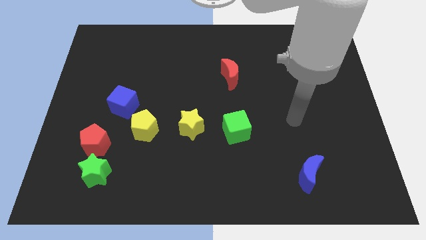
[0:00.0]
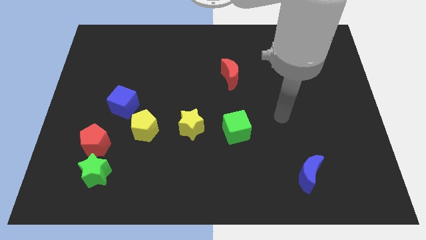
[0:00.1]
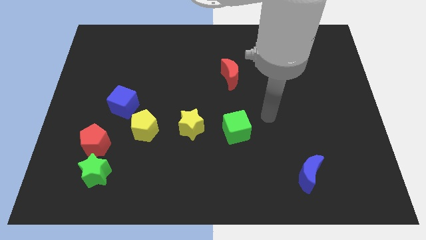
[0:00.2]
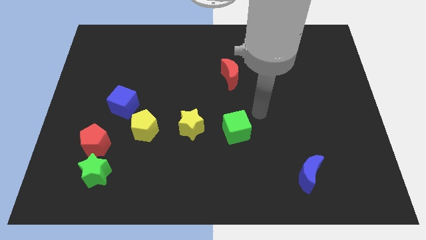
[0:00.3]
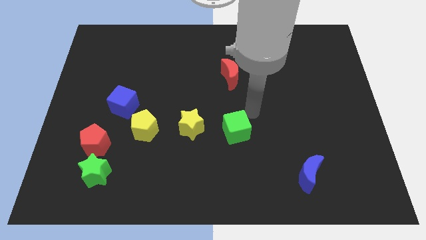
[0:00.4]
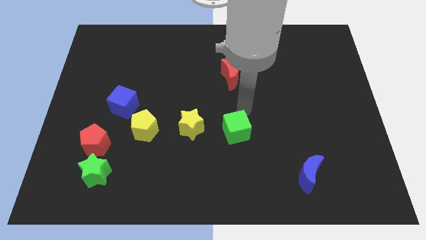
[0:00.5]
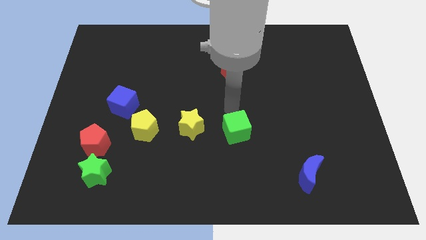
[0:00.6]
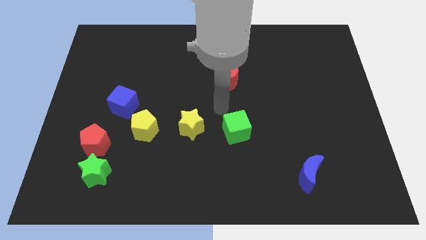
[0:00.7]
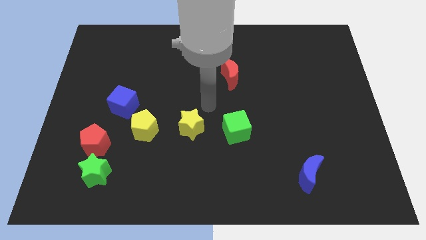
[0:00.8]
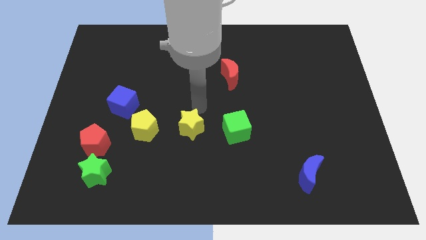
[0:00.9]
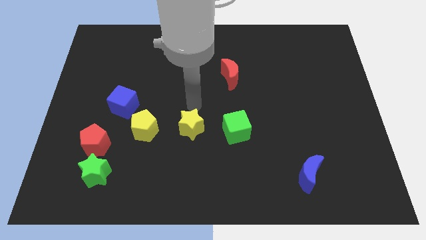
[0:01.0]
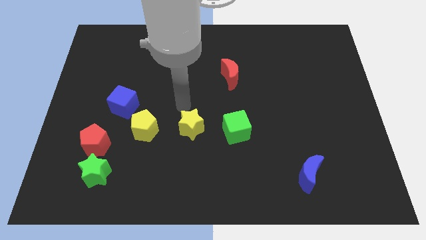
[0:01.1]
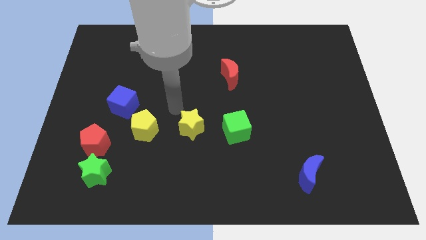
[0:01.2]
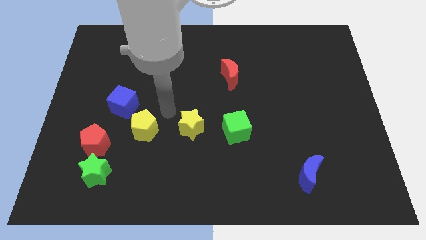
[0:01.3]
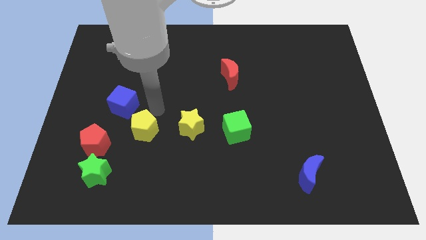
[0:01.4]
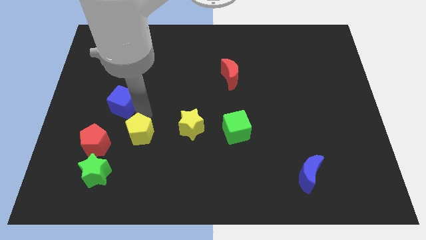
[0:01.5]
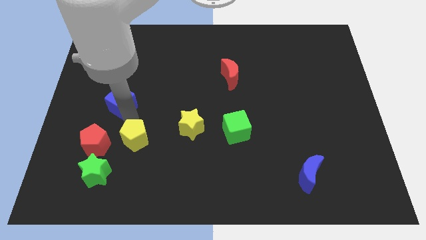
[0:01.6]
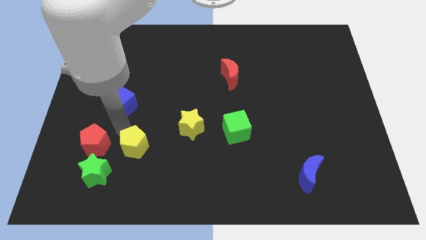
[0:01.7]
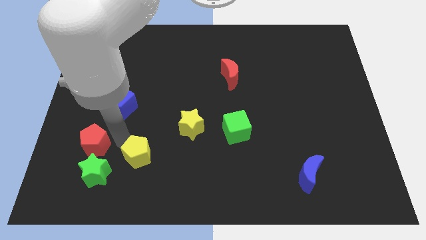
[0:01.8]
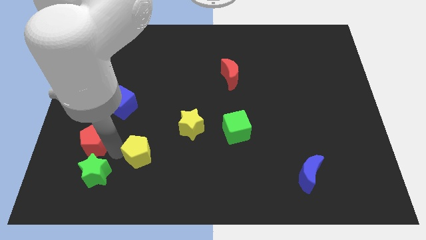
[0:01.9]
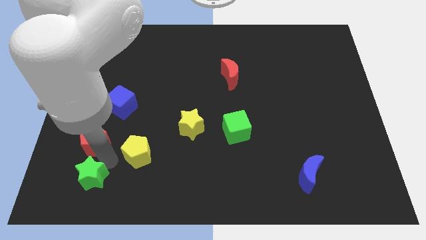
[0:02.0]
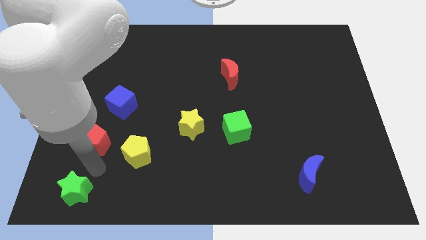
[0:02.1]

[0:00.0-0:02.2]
move the red pentagon away from the green star

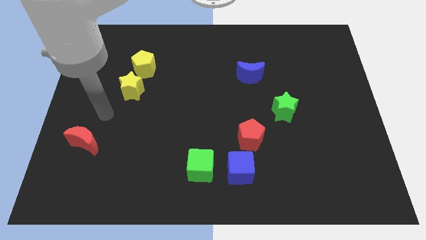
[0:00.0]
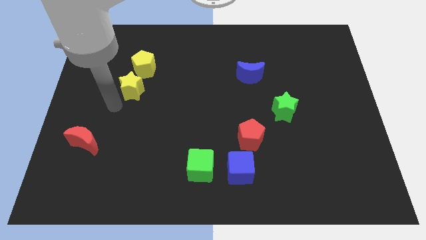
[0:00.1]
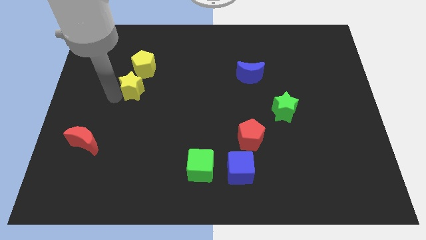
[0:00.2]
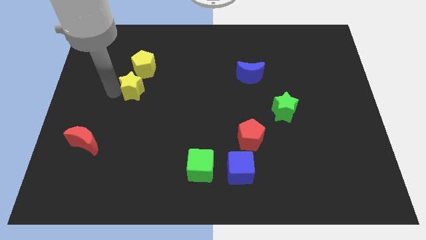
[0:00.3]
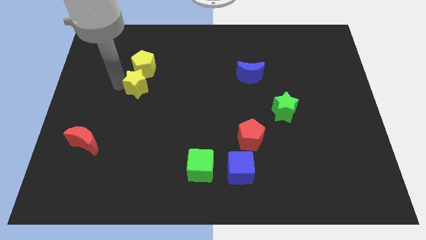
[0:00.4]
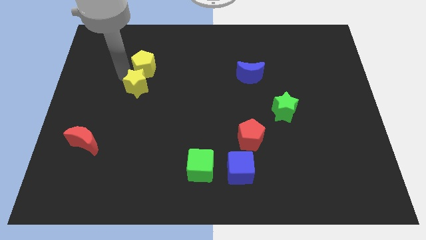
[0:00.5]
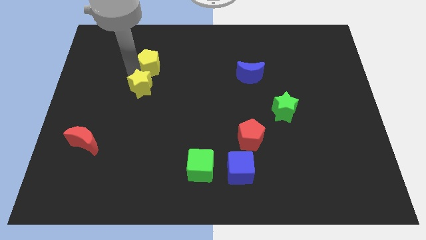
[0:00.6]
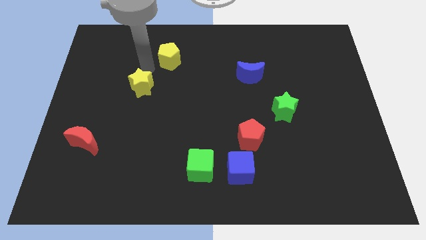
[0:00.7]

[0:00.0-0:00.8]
separate the yellow star from the yellow pentagon

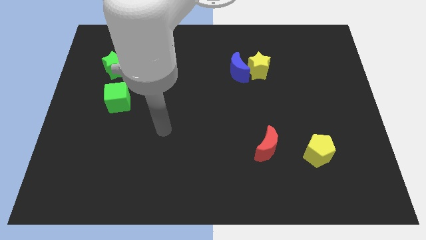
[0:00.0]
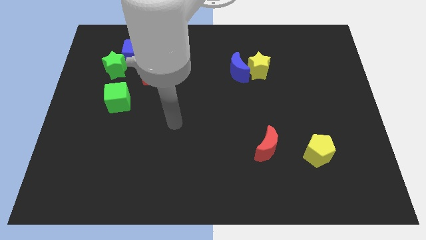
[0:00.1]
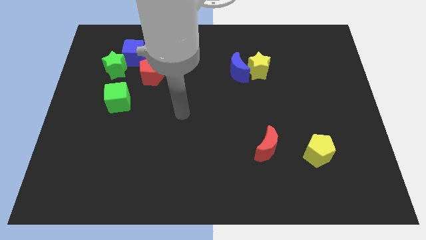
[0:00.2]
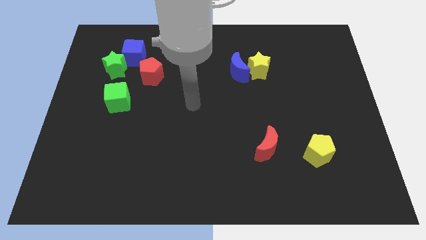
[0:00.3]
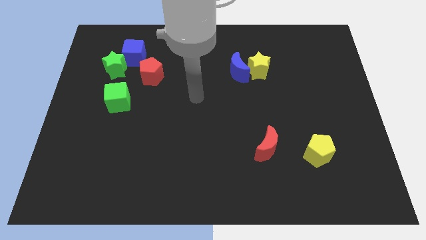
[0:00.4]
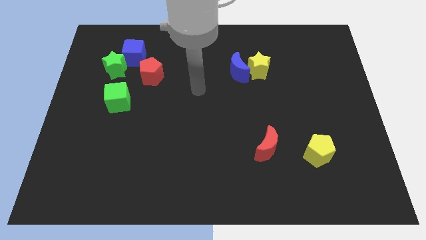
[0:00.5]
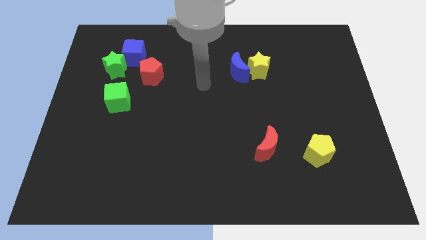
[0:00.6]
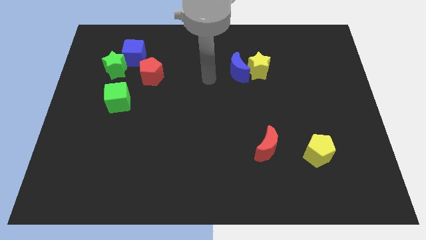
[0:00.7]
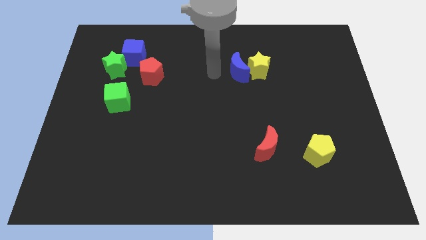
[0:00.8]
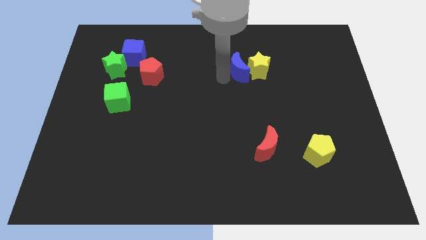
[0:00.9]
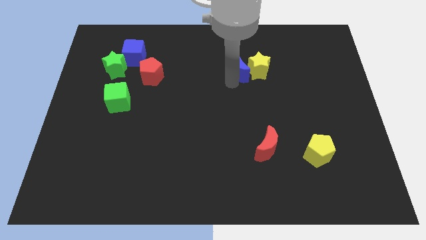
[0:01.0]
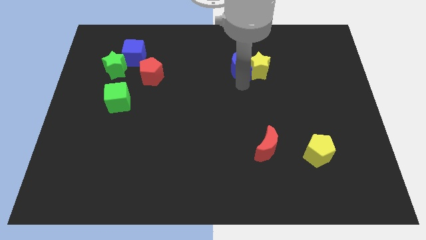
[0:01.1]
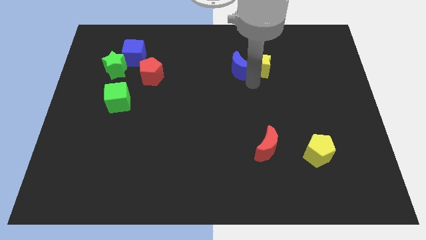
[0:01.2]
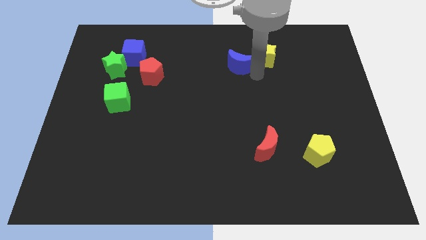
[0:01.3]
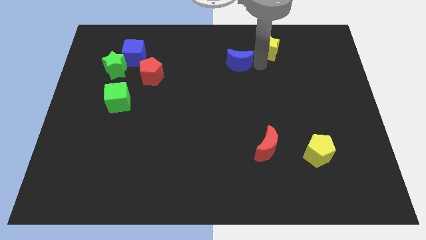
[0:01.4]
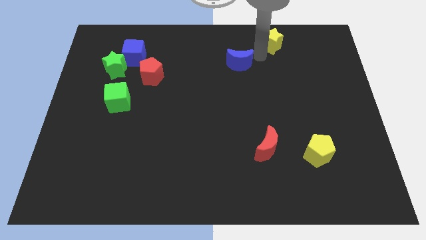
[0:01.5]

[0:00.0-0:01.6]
move the blue moon away from the yellow star

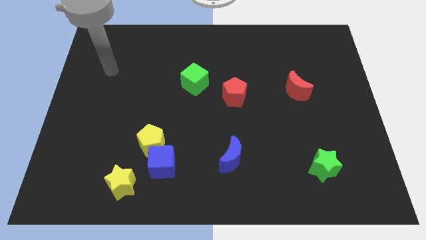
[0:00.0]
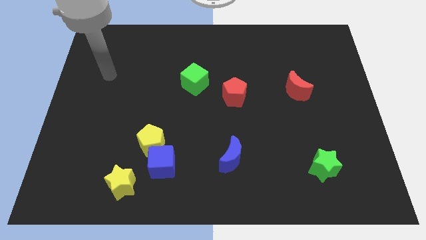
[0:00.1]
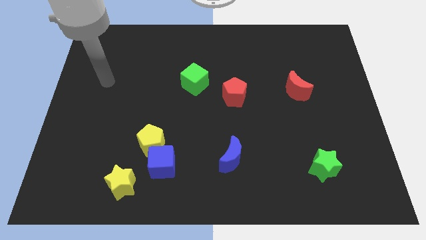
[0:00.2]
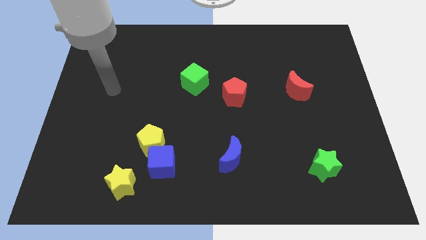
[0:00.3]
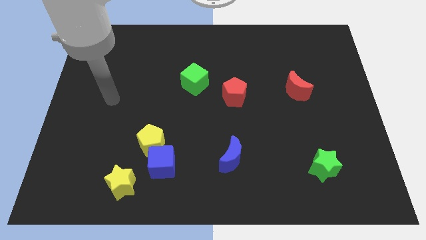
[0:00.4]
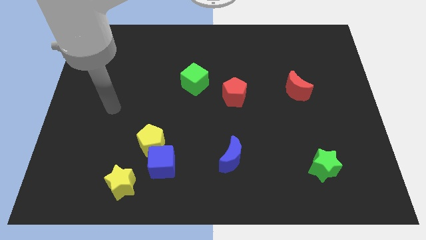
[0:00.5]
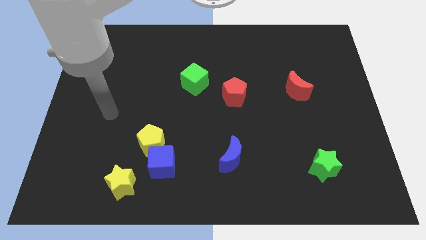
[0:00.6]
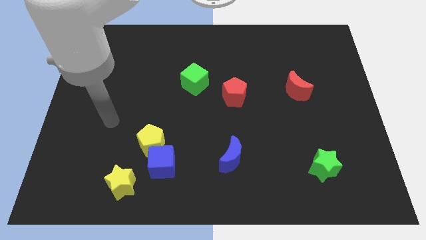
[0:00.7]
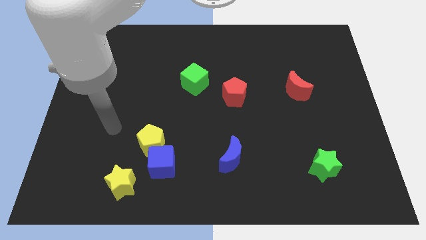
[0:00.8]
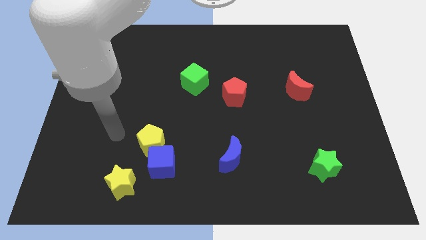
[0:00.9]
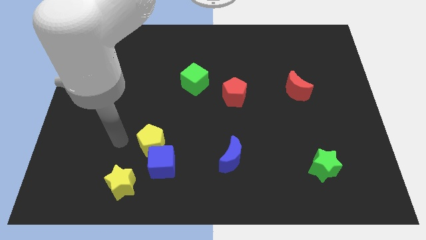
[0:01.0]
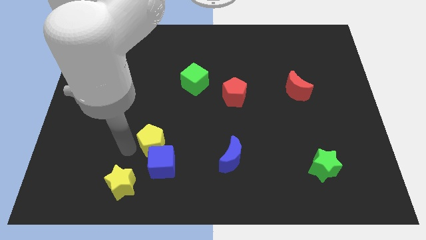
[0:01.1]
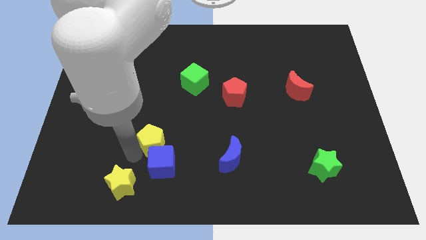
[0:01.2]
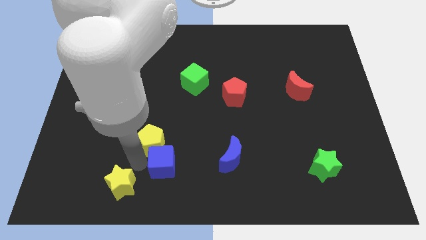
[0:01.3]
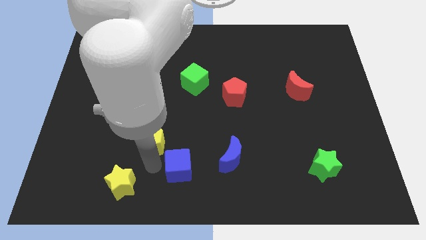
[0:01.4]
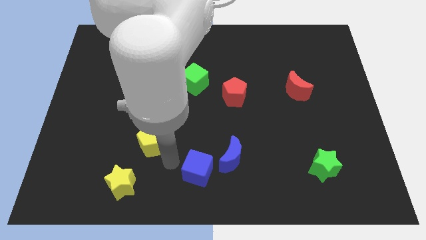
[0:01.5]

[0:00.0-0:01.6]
pull the yellow pentagon apart from the blue cube

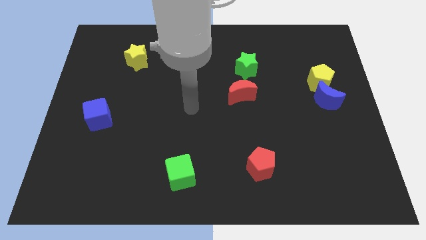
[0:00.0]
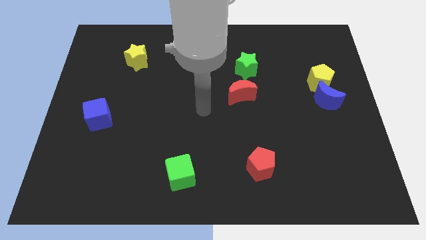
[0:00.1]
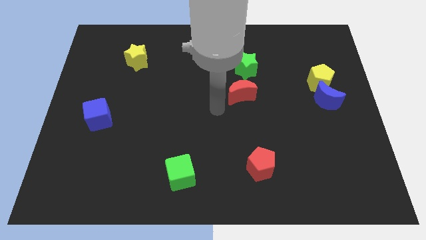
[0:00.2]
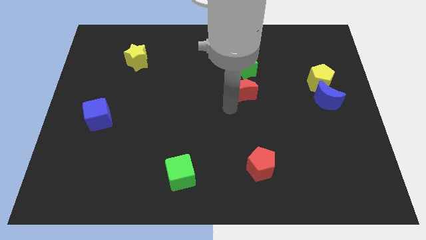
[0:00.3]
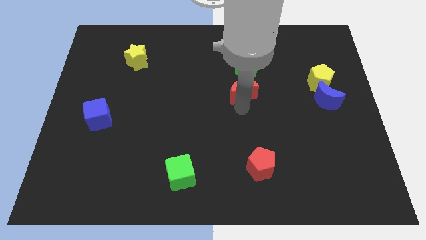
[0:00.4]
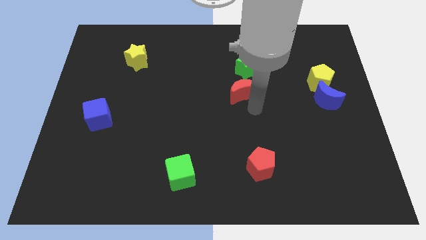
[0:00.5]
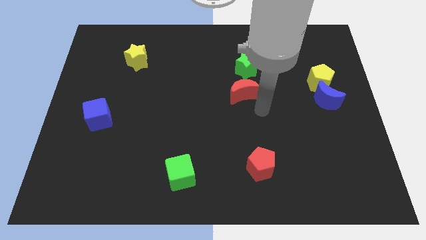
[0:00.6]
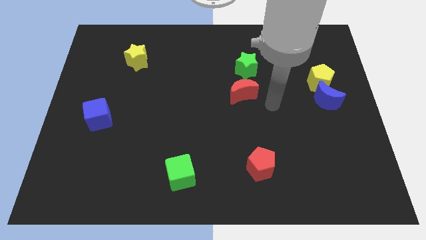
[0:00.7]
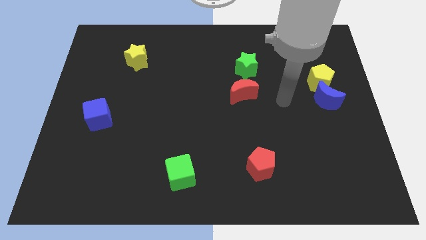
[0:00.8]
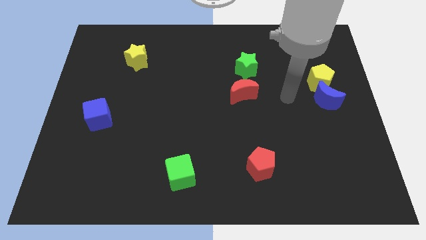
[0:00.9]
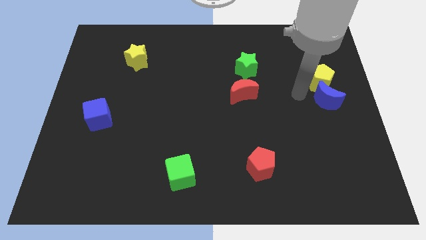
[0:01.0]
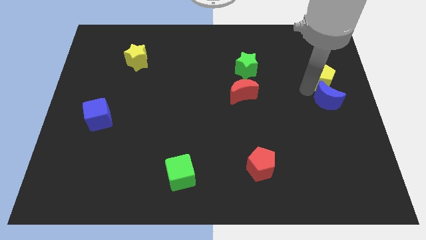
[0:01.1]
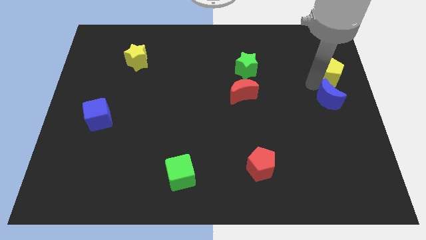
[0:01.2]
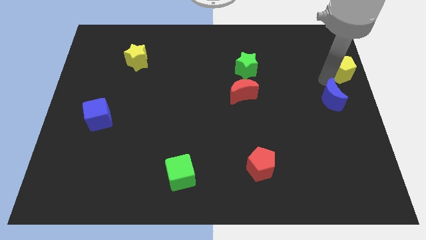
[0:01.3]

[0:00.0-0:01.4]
separate the blue moon from the yellow pentagon

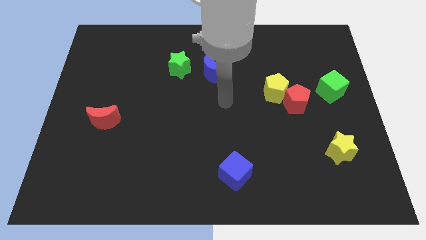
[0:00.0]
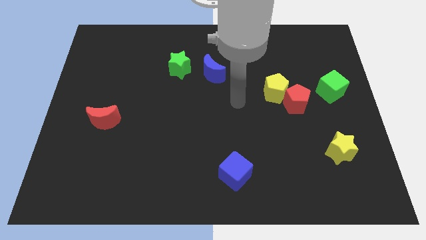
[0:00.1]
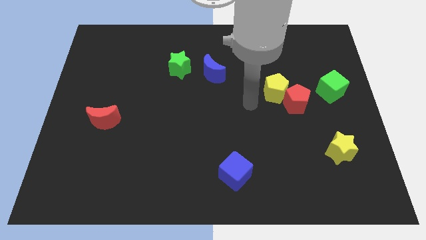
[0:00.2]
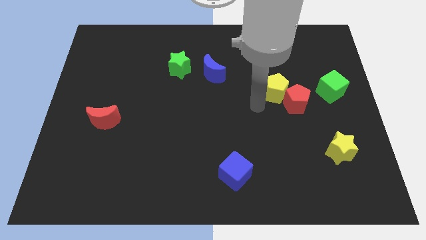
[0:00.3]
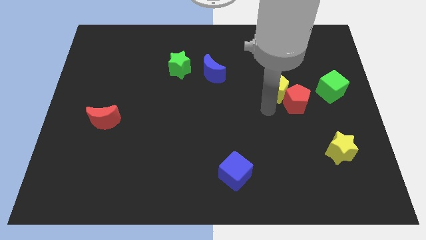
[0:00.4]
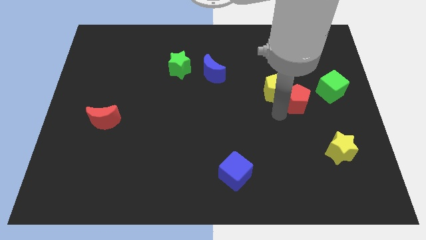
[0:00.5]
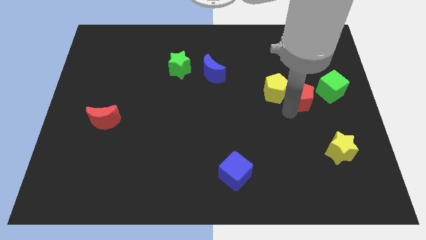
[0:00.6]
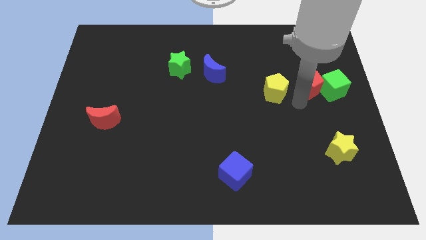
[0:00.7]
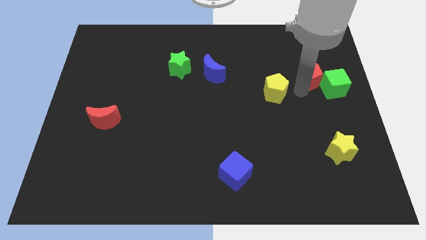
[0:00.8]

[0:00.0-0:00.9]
pull the yellow pentagon apart from the red pentagon

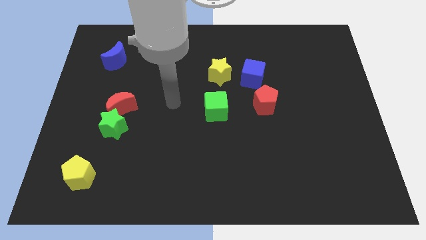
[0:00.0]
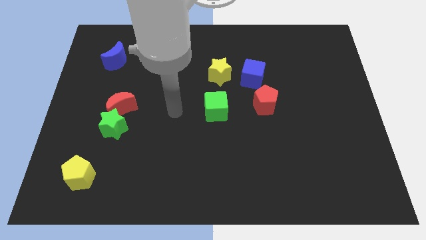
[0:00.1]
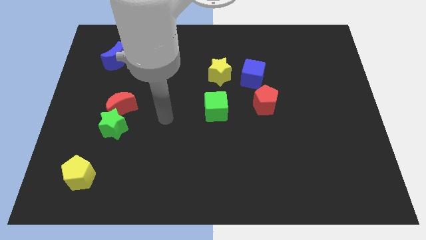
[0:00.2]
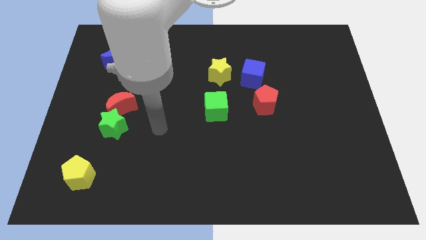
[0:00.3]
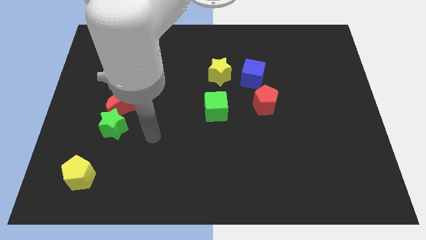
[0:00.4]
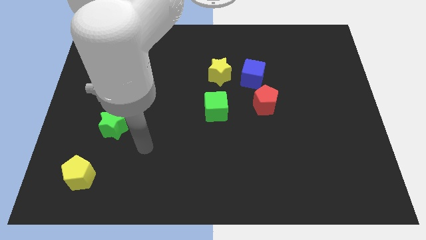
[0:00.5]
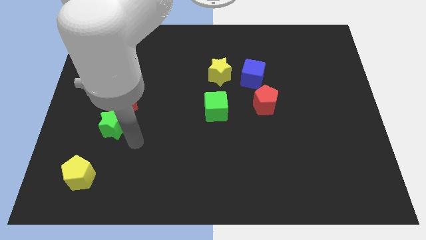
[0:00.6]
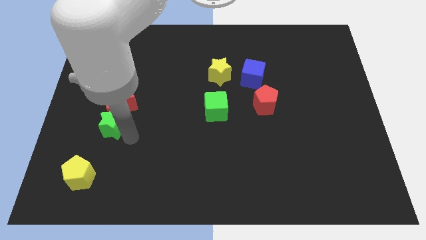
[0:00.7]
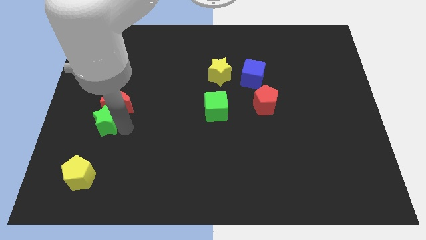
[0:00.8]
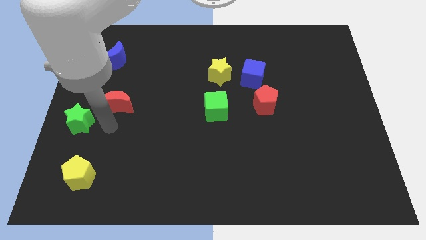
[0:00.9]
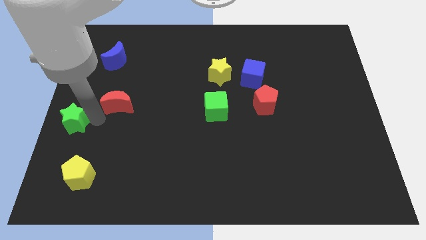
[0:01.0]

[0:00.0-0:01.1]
separate the red moon from the green star
